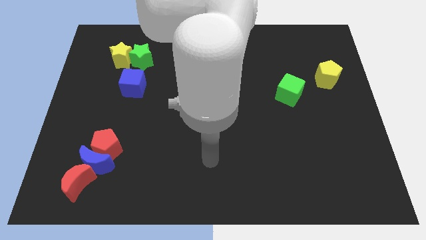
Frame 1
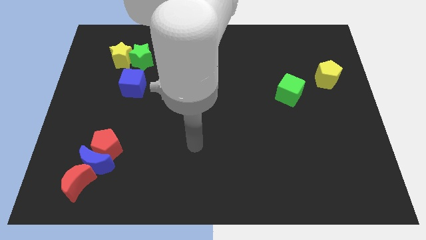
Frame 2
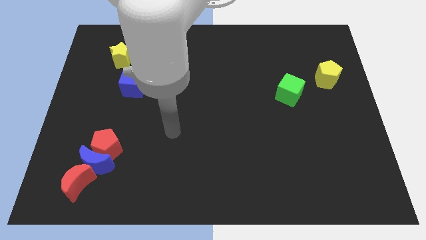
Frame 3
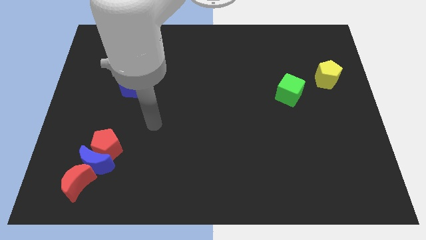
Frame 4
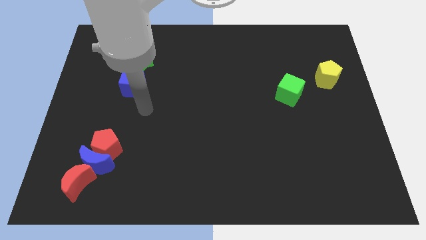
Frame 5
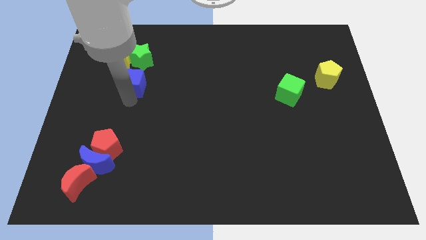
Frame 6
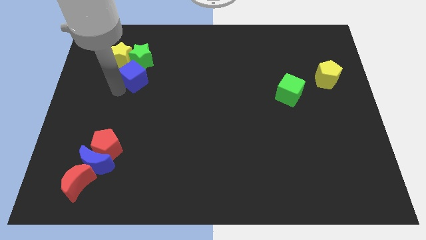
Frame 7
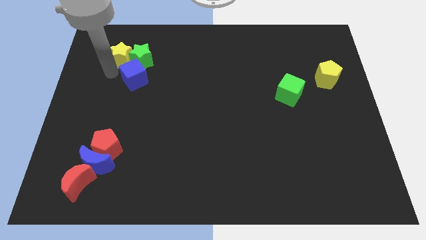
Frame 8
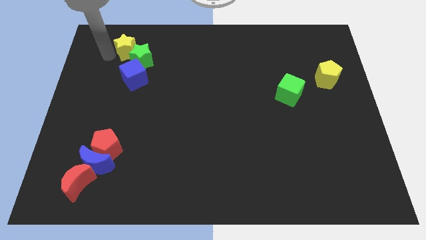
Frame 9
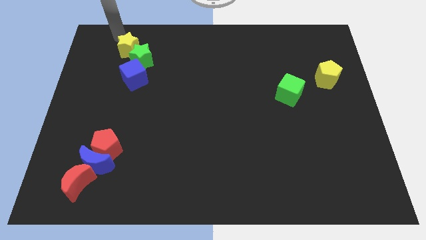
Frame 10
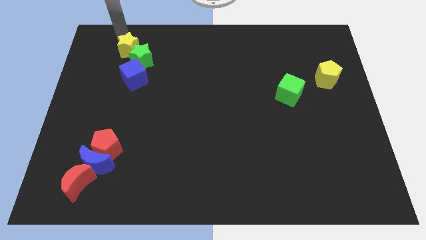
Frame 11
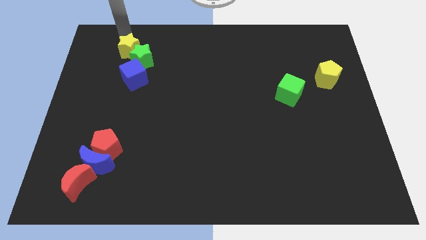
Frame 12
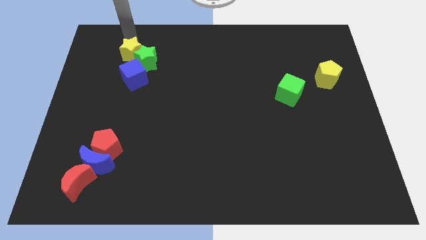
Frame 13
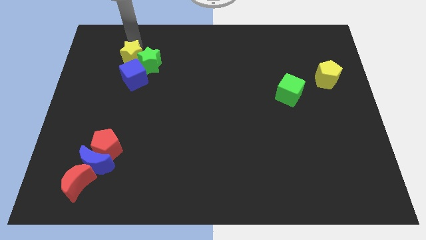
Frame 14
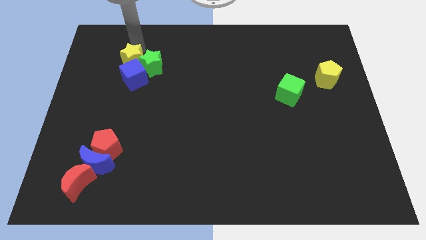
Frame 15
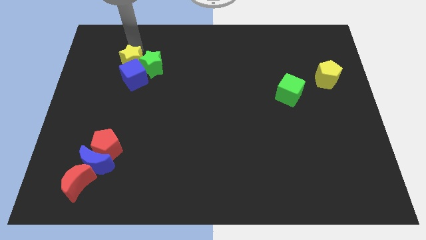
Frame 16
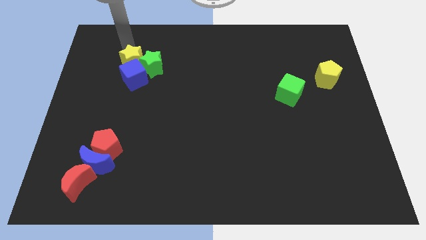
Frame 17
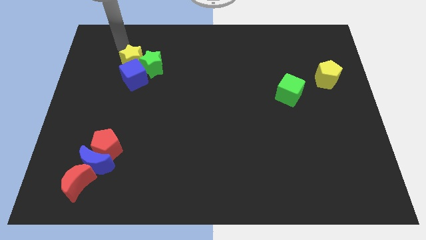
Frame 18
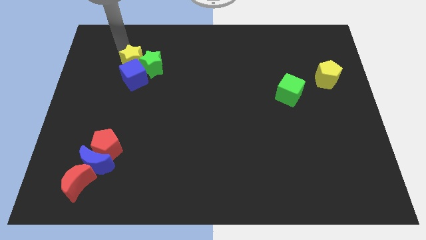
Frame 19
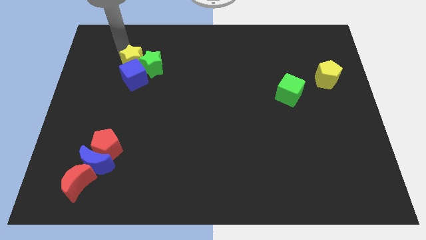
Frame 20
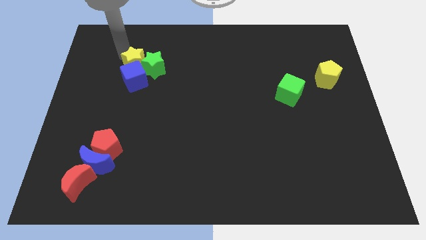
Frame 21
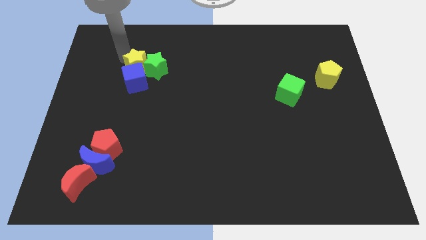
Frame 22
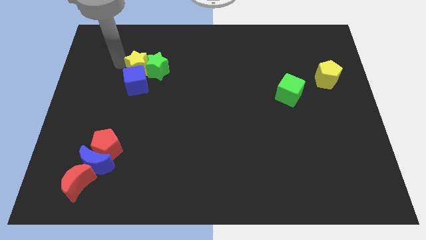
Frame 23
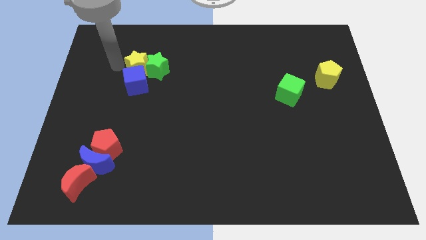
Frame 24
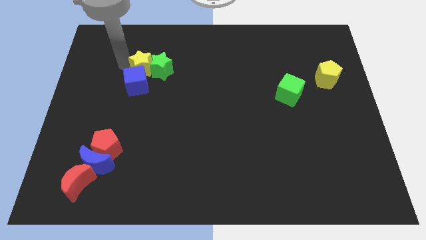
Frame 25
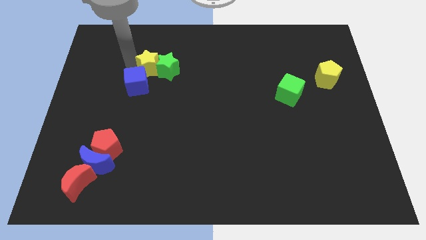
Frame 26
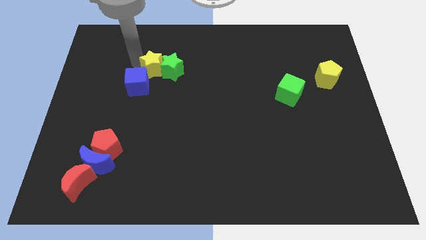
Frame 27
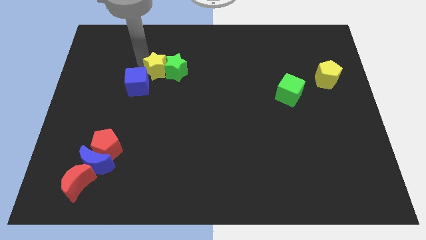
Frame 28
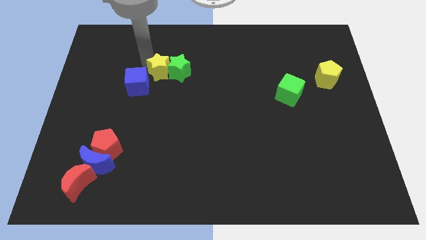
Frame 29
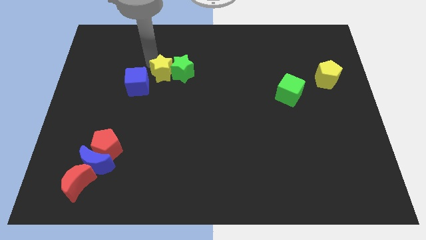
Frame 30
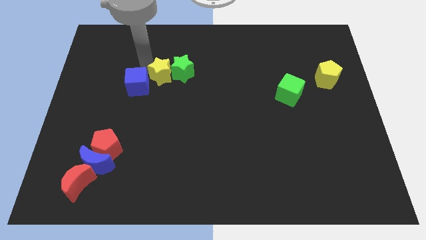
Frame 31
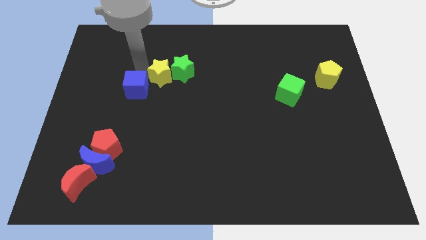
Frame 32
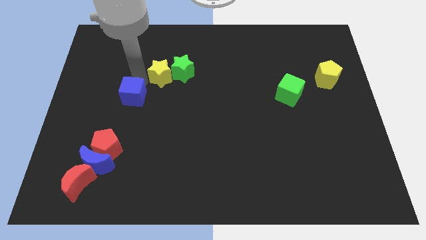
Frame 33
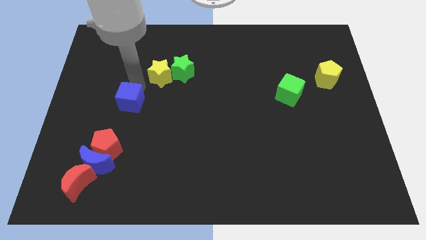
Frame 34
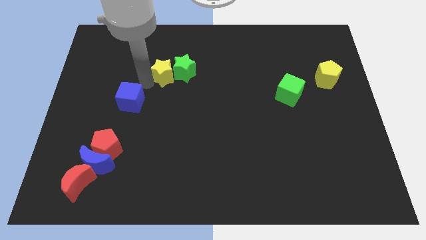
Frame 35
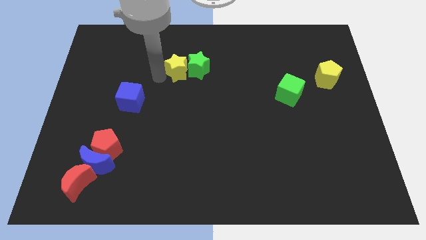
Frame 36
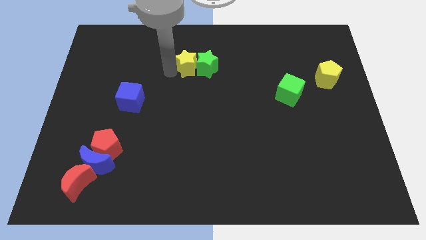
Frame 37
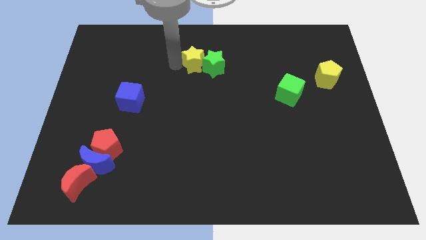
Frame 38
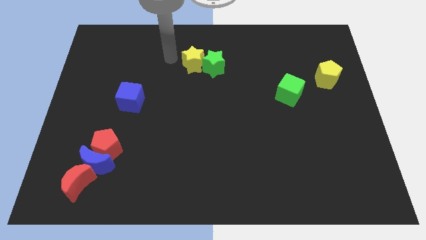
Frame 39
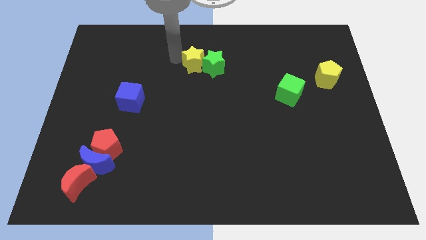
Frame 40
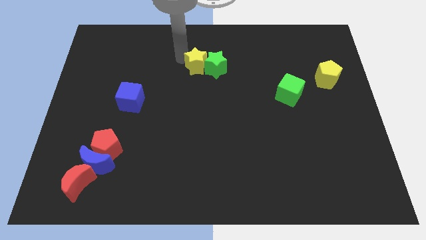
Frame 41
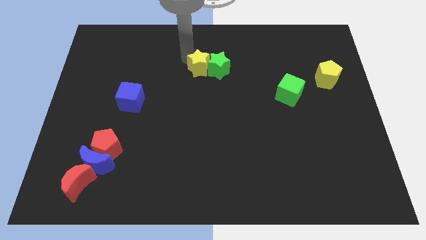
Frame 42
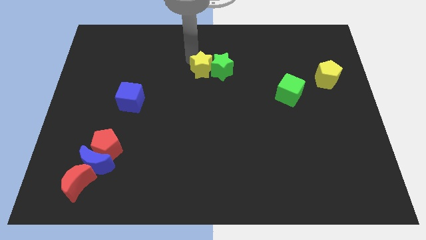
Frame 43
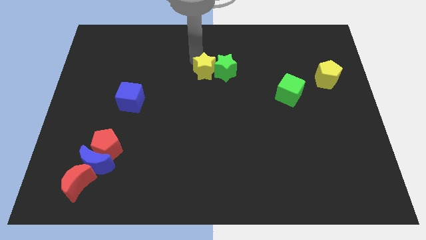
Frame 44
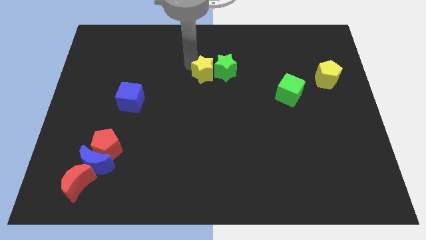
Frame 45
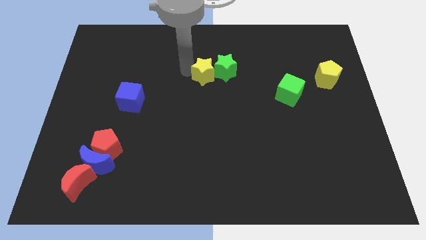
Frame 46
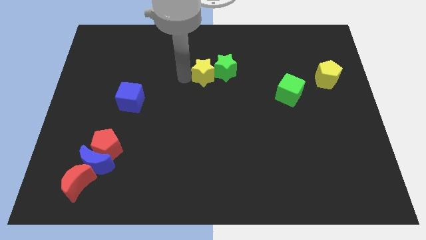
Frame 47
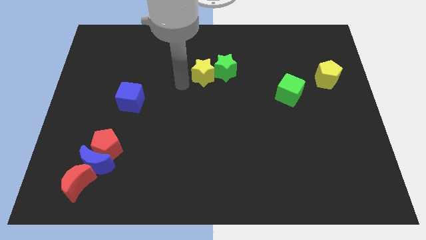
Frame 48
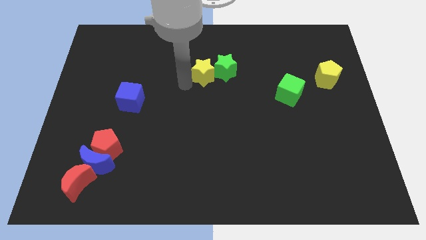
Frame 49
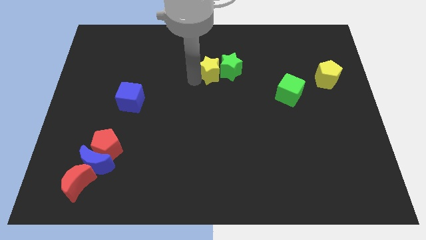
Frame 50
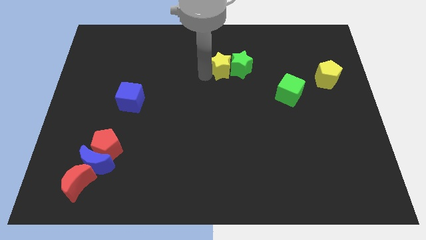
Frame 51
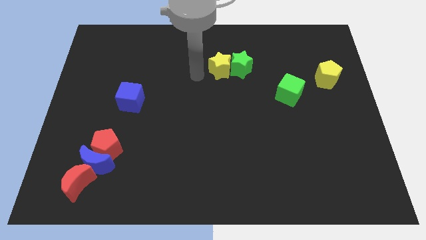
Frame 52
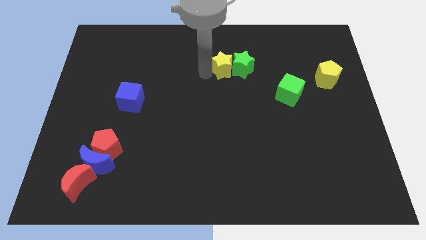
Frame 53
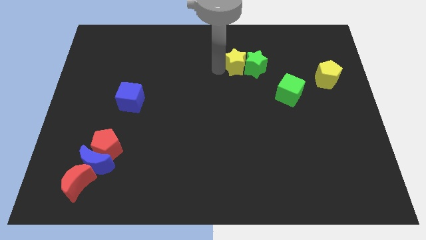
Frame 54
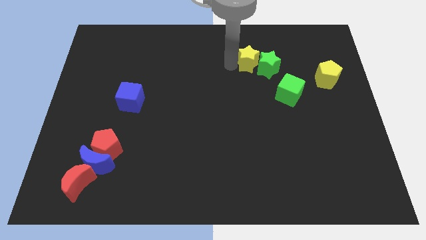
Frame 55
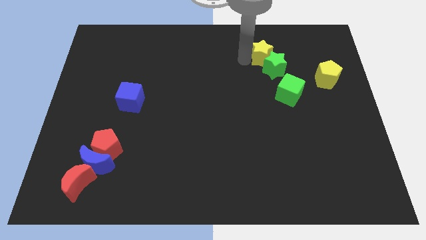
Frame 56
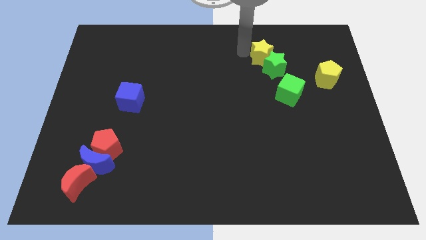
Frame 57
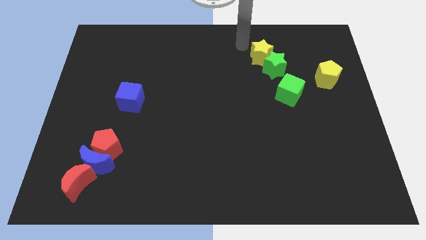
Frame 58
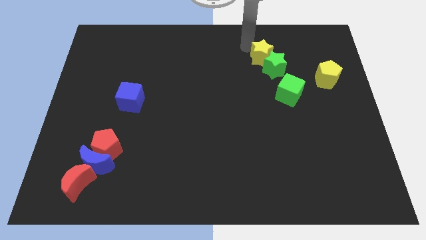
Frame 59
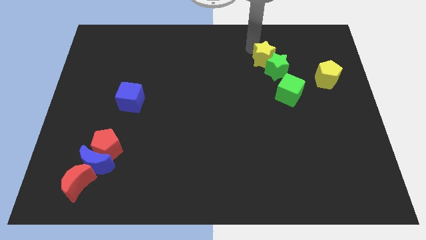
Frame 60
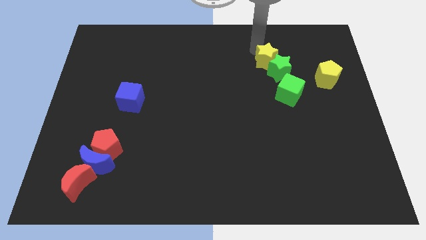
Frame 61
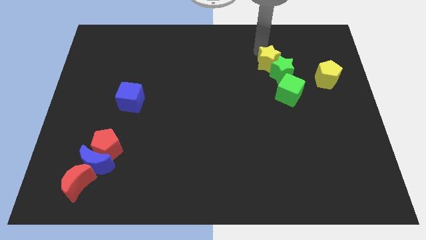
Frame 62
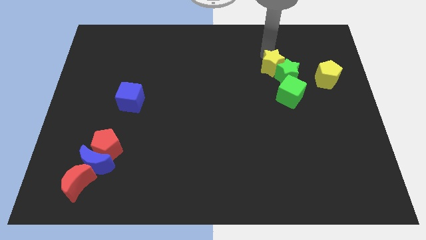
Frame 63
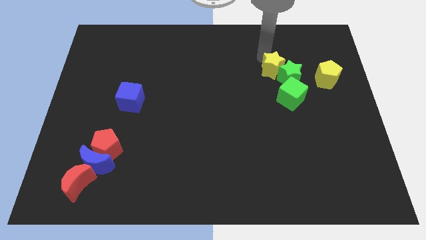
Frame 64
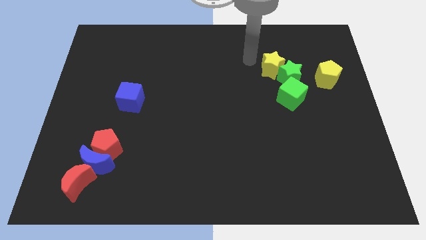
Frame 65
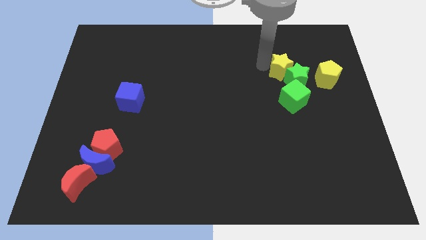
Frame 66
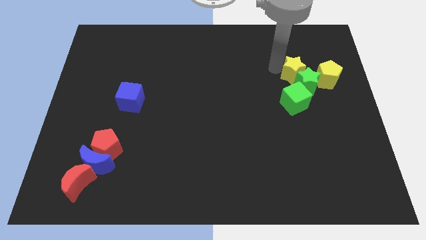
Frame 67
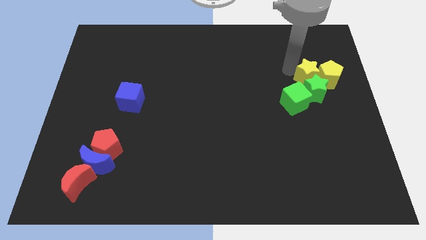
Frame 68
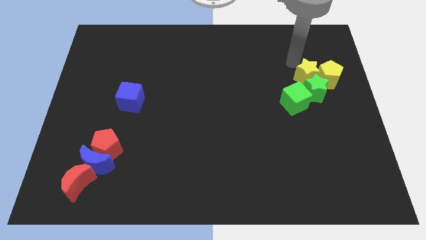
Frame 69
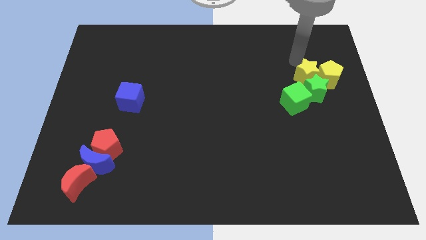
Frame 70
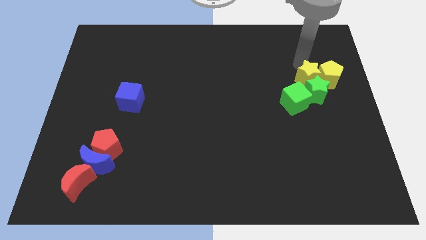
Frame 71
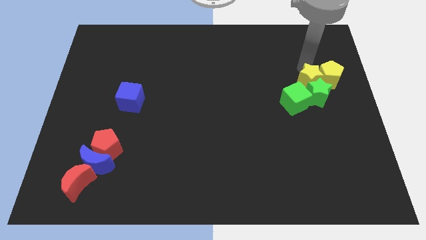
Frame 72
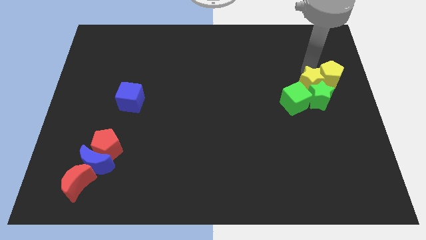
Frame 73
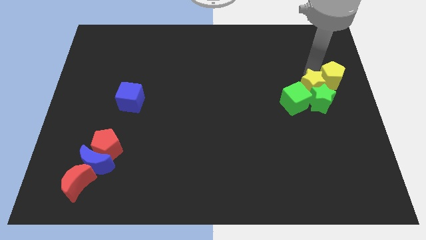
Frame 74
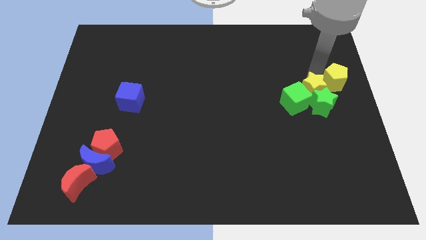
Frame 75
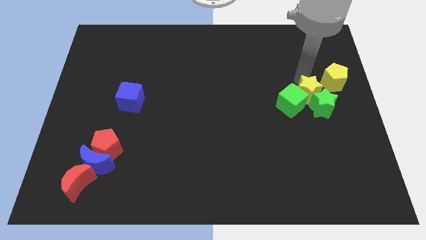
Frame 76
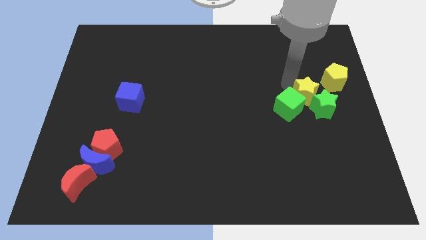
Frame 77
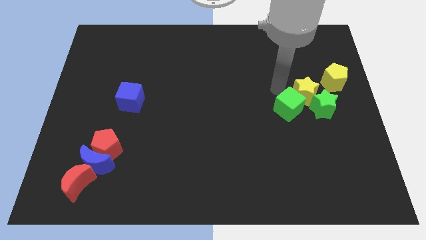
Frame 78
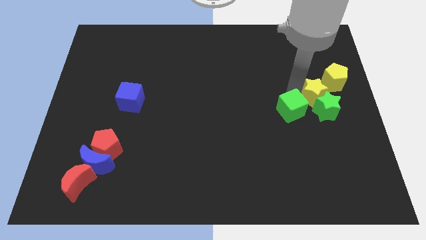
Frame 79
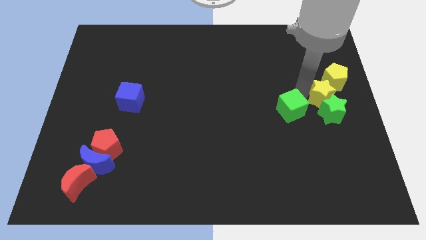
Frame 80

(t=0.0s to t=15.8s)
slide the yellow star to the right side of the board
